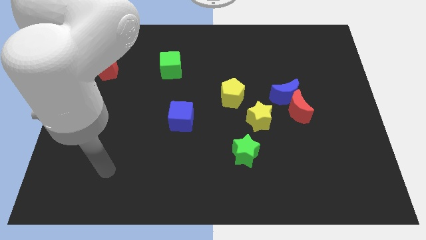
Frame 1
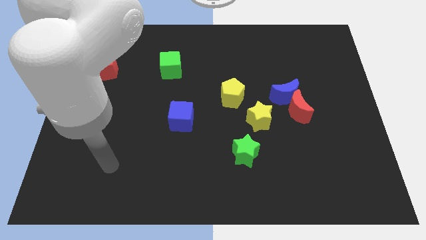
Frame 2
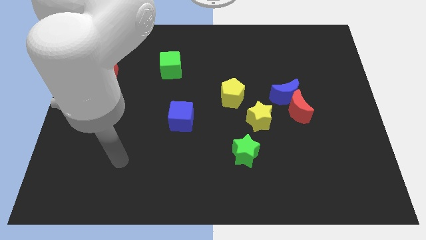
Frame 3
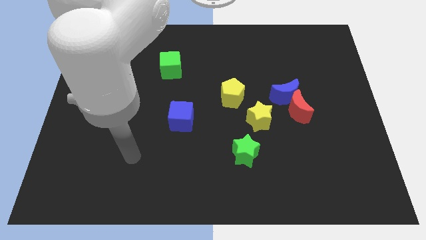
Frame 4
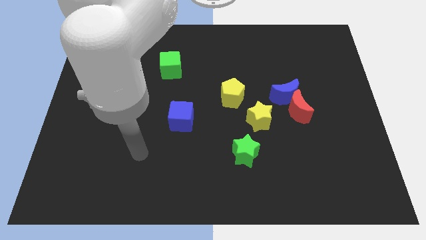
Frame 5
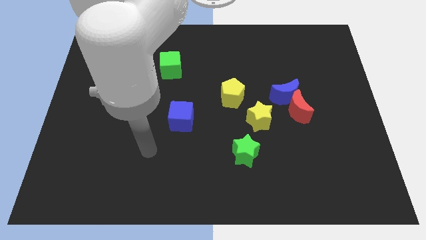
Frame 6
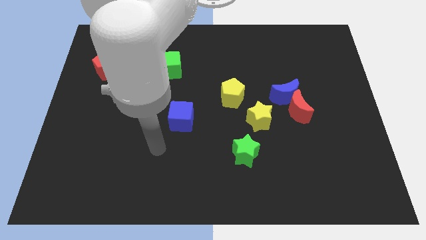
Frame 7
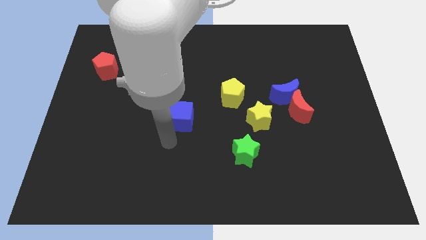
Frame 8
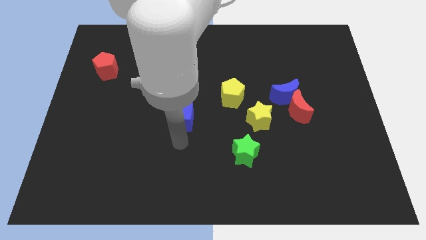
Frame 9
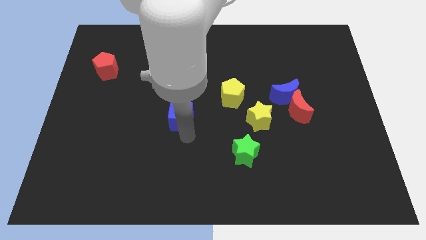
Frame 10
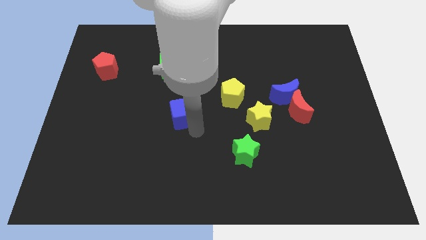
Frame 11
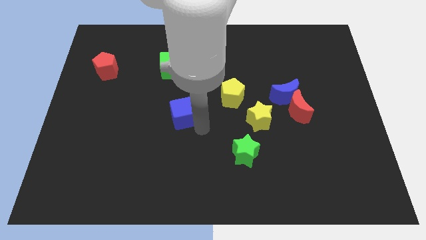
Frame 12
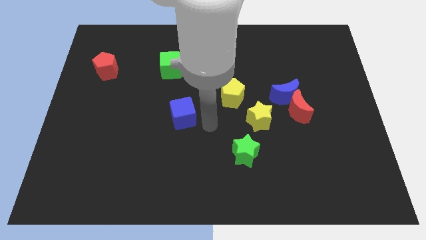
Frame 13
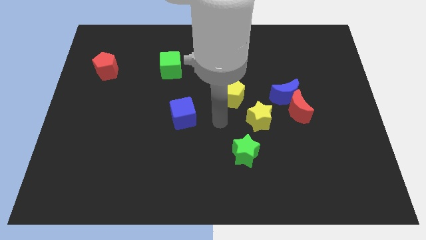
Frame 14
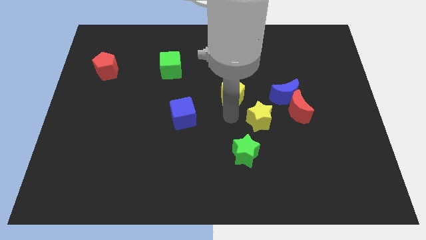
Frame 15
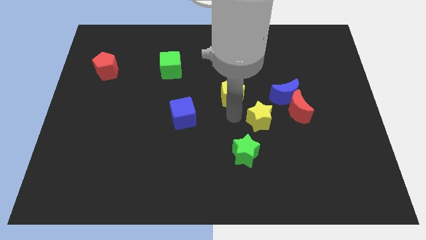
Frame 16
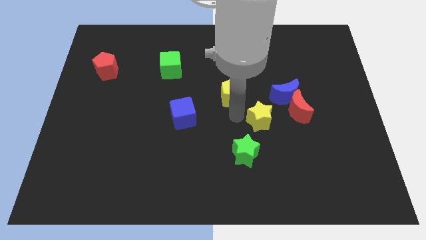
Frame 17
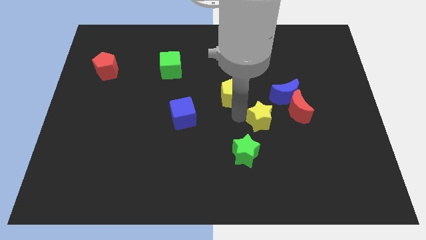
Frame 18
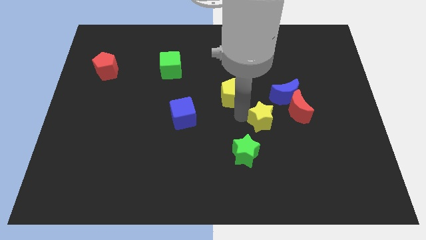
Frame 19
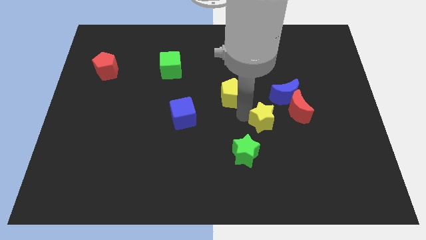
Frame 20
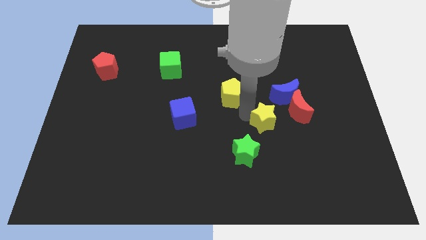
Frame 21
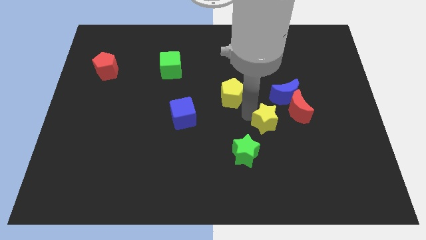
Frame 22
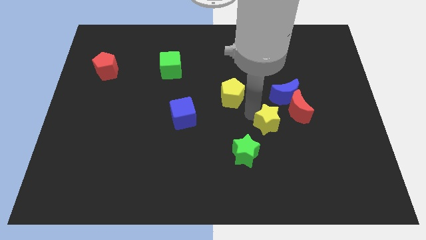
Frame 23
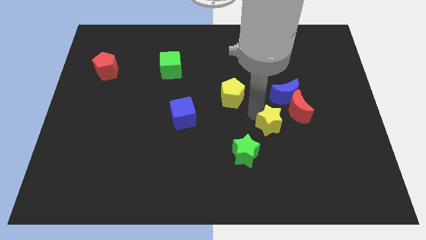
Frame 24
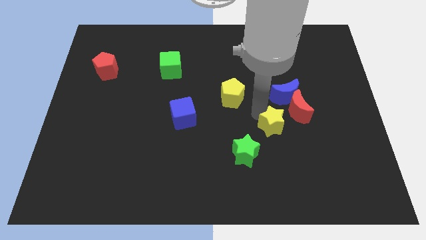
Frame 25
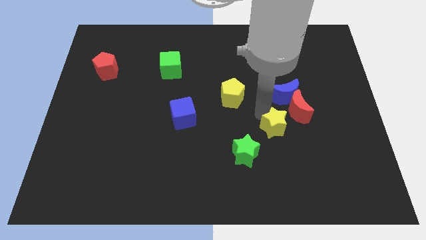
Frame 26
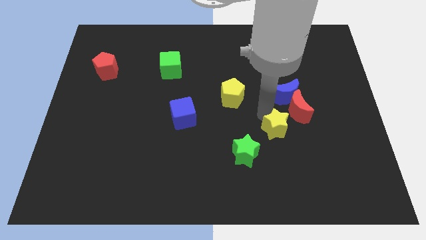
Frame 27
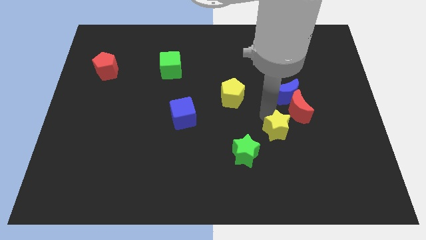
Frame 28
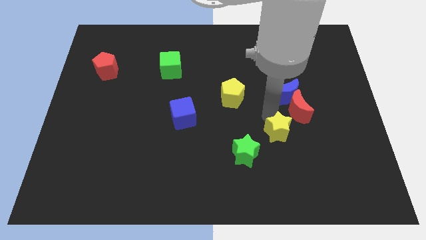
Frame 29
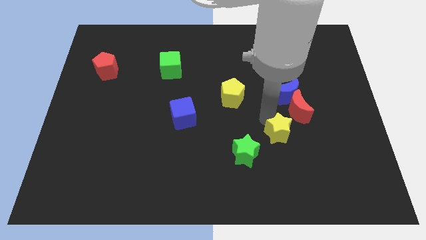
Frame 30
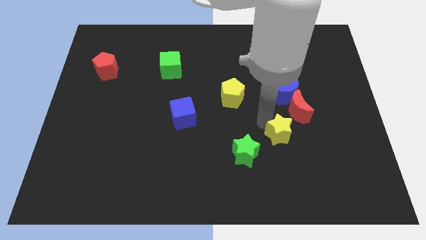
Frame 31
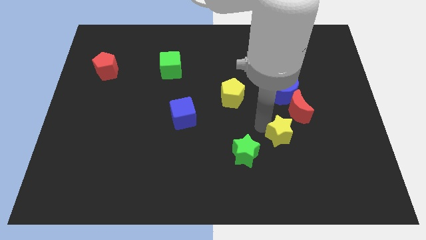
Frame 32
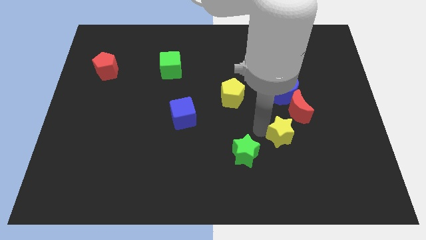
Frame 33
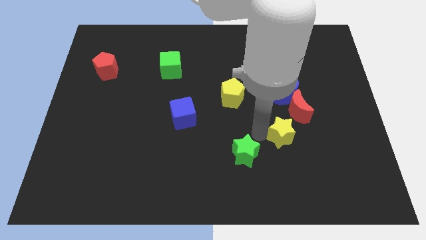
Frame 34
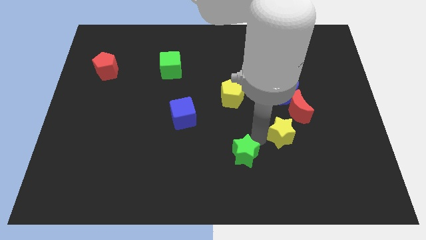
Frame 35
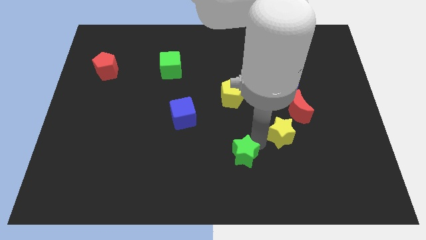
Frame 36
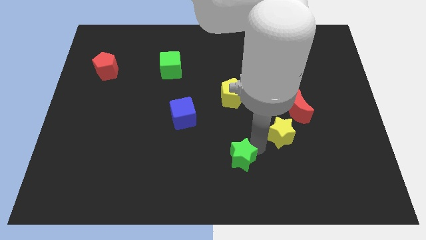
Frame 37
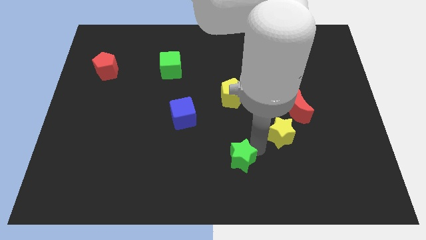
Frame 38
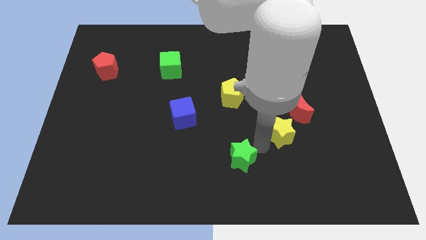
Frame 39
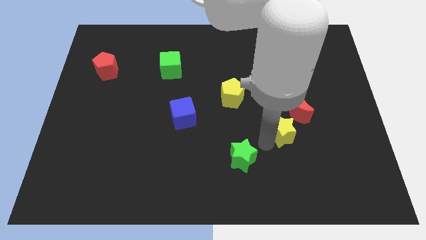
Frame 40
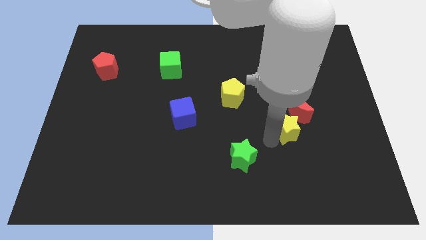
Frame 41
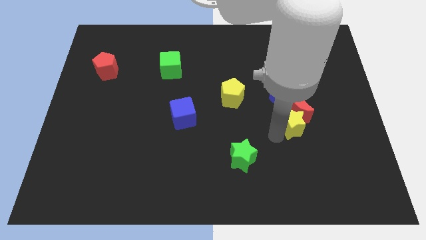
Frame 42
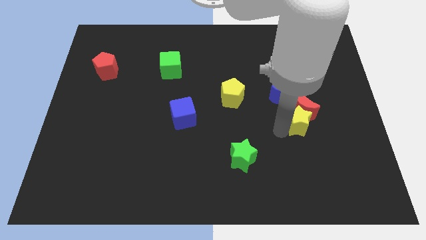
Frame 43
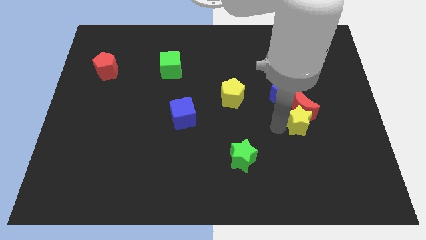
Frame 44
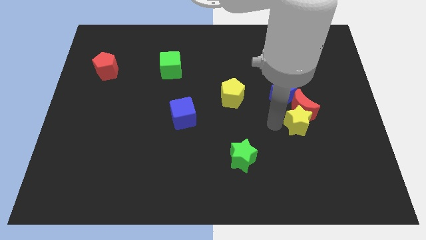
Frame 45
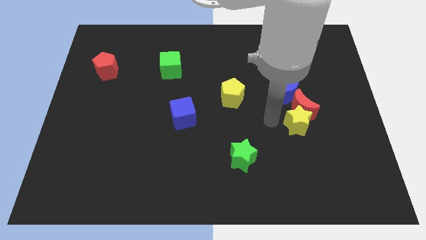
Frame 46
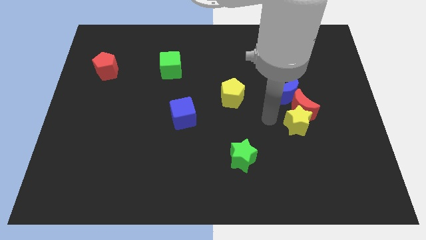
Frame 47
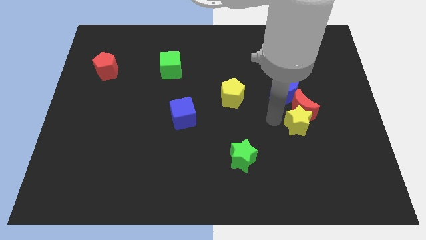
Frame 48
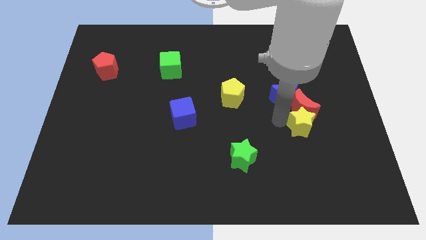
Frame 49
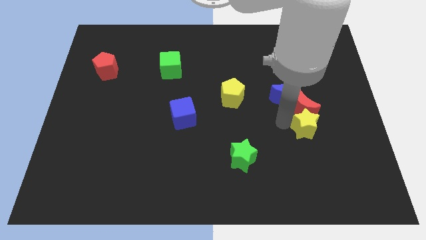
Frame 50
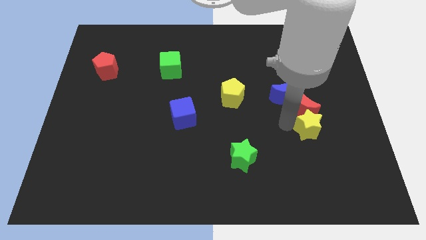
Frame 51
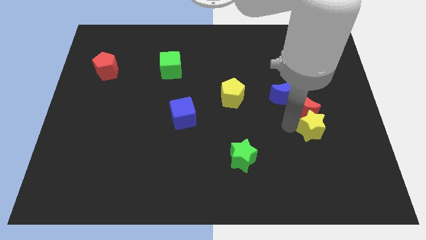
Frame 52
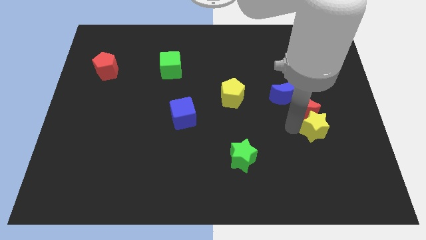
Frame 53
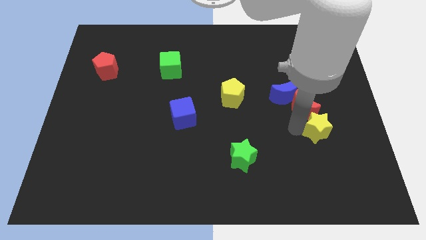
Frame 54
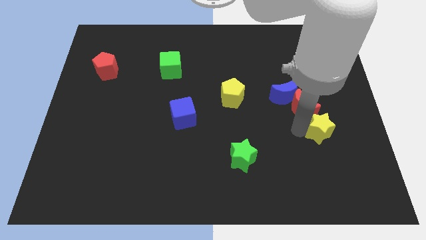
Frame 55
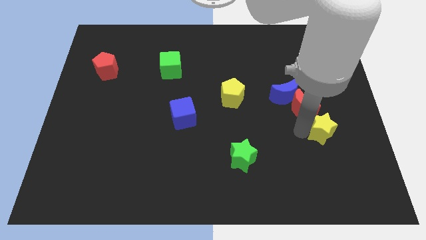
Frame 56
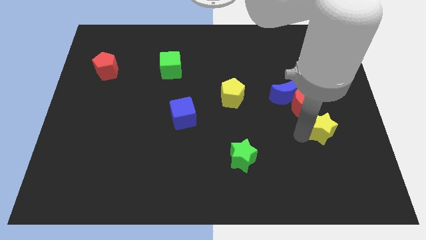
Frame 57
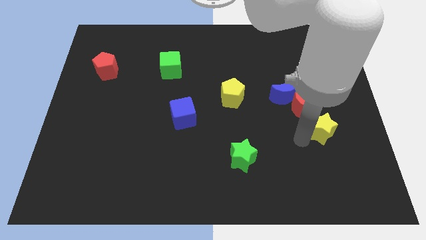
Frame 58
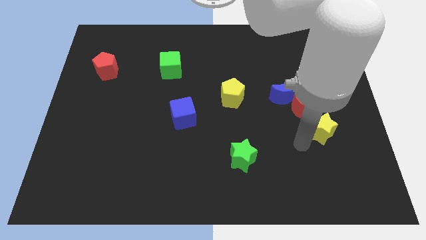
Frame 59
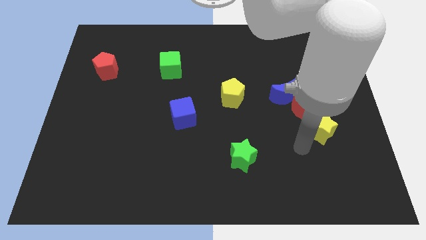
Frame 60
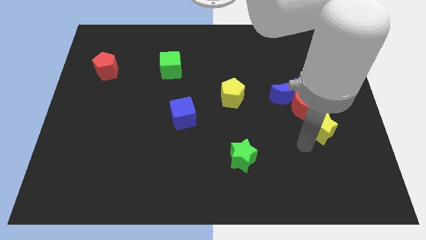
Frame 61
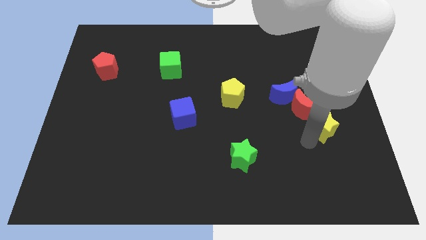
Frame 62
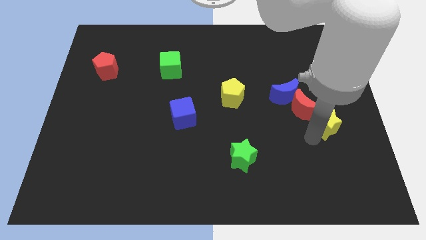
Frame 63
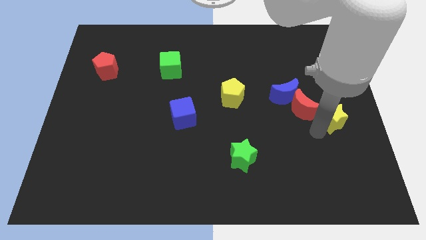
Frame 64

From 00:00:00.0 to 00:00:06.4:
slide the yellow star to the center right

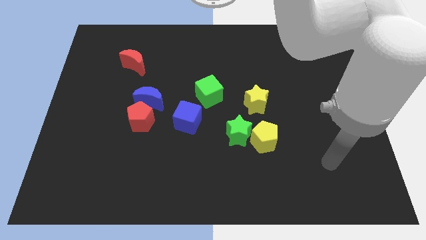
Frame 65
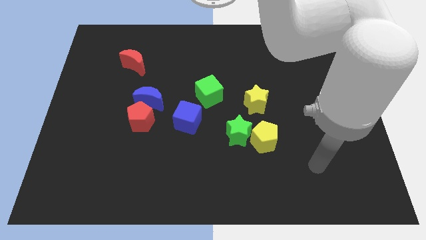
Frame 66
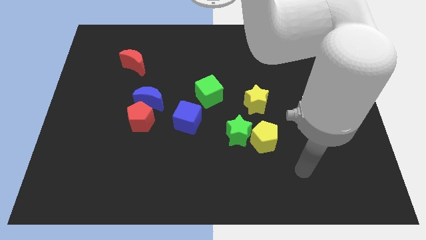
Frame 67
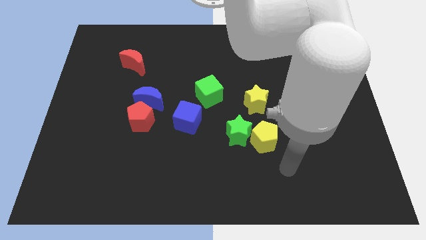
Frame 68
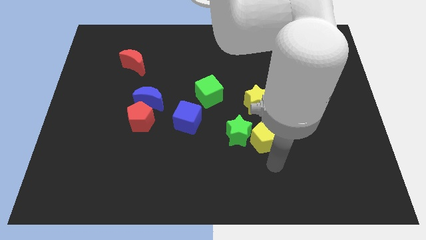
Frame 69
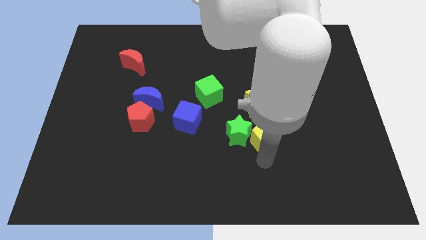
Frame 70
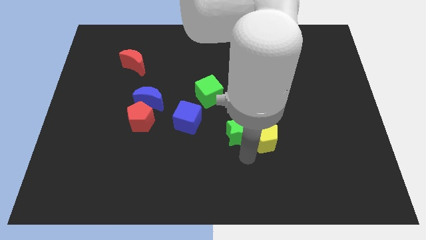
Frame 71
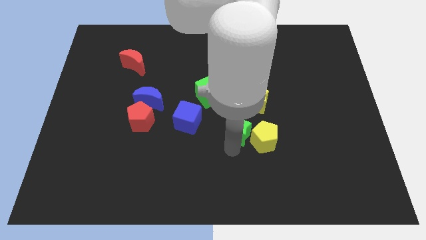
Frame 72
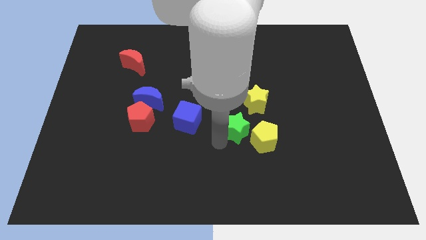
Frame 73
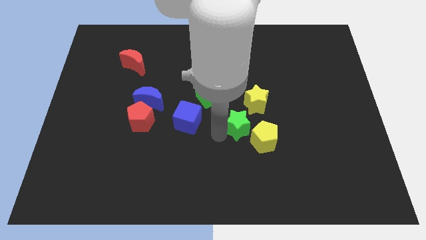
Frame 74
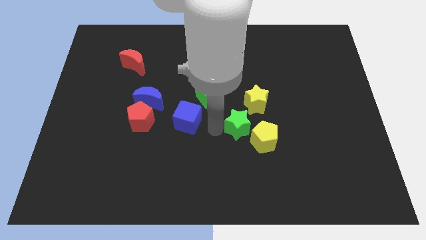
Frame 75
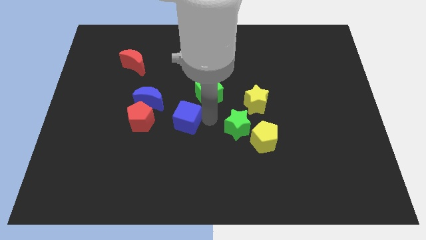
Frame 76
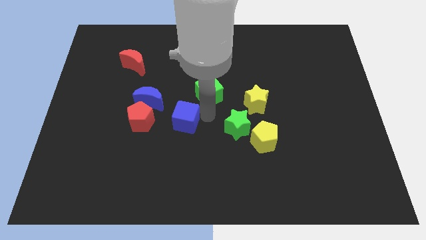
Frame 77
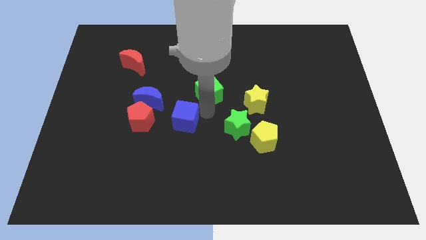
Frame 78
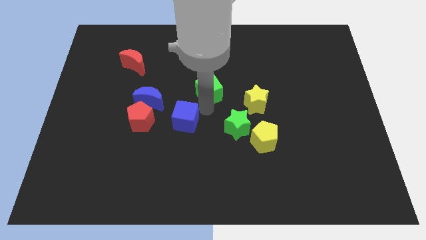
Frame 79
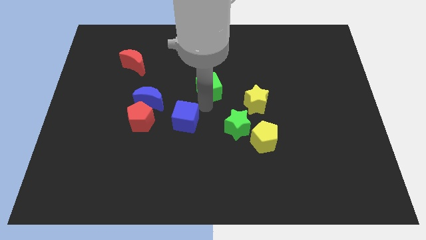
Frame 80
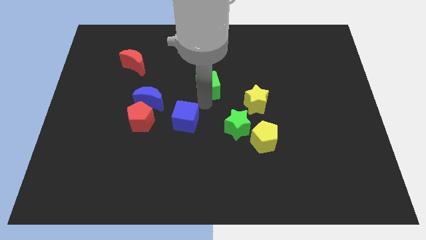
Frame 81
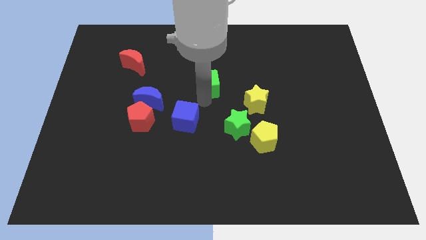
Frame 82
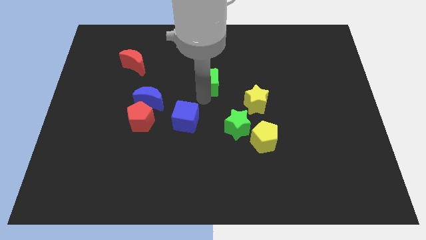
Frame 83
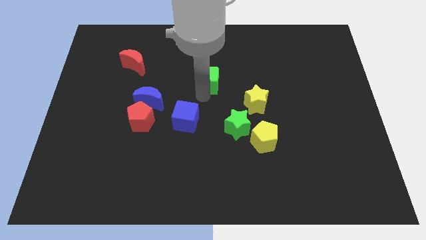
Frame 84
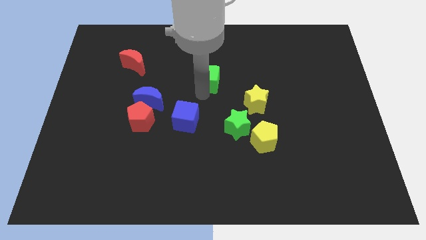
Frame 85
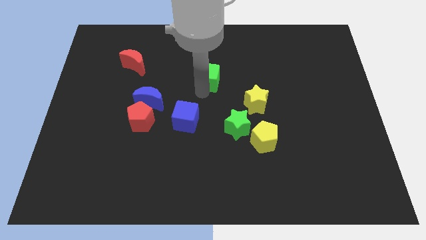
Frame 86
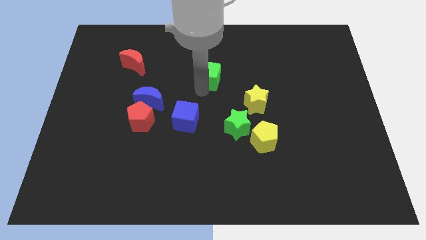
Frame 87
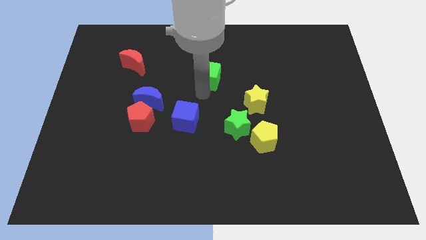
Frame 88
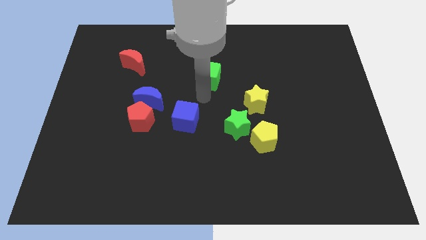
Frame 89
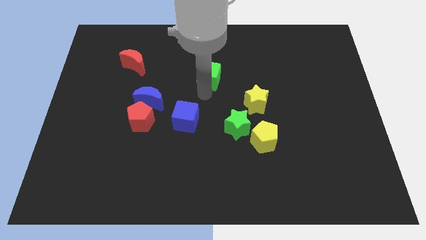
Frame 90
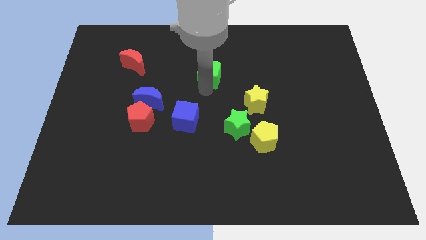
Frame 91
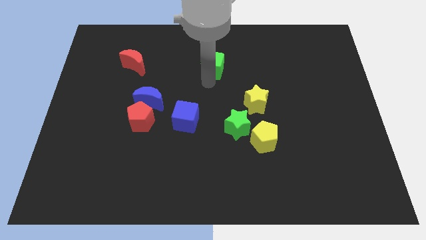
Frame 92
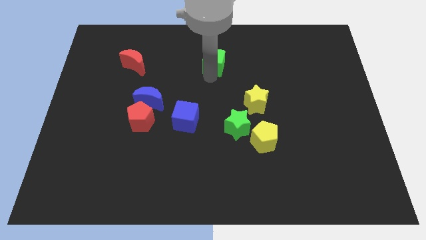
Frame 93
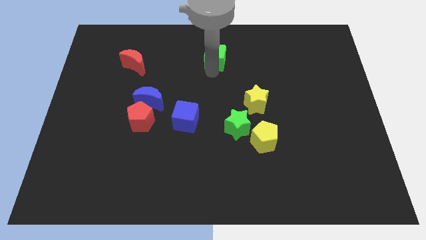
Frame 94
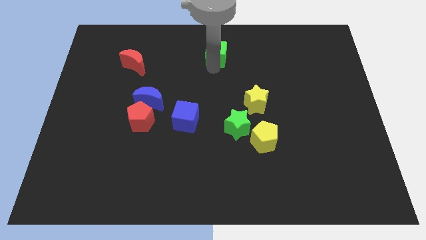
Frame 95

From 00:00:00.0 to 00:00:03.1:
put the green cube to the towards your base
